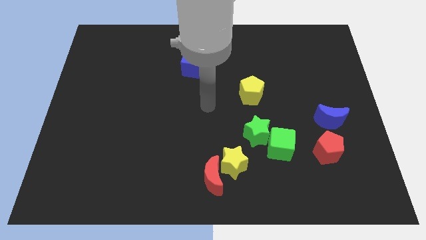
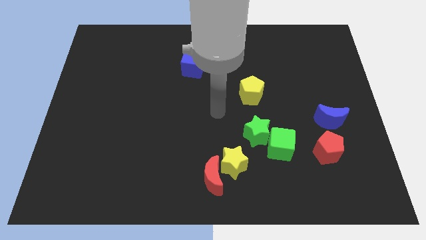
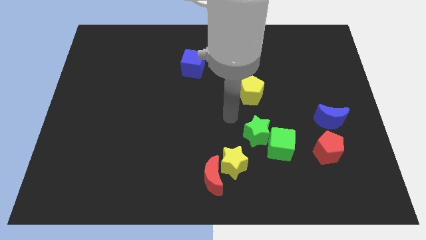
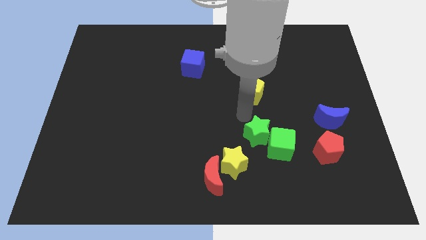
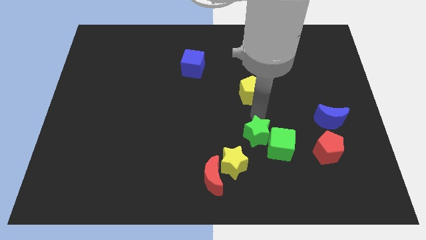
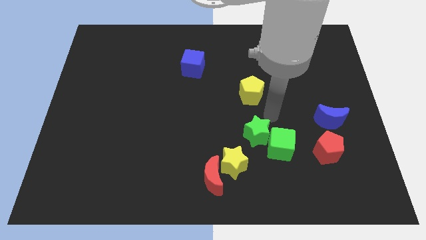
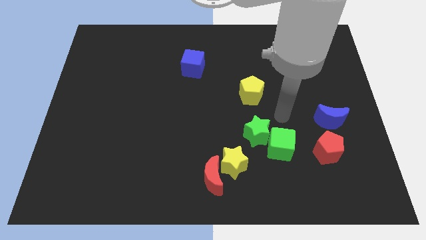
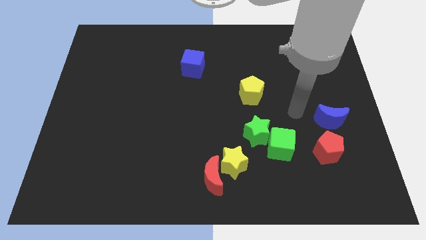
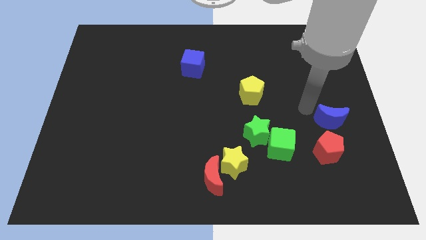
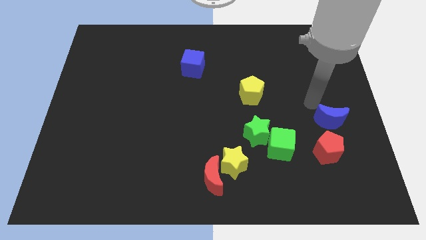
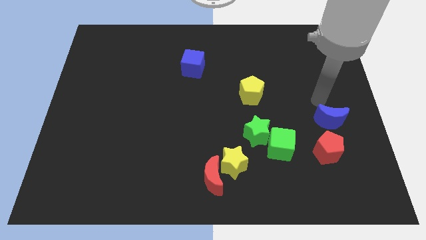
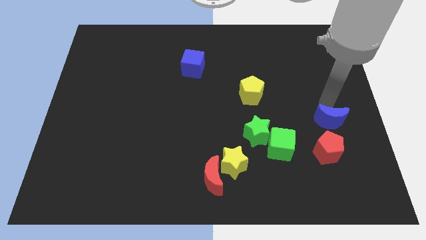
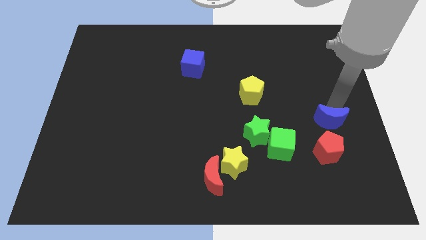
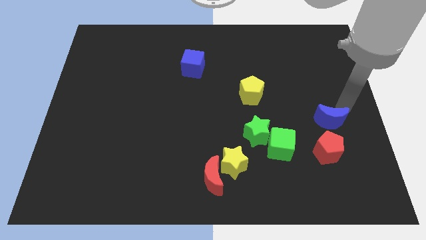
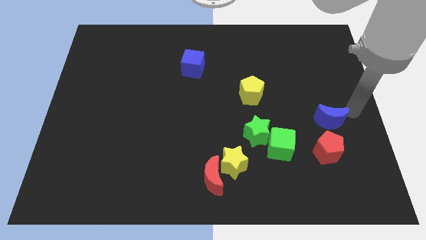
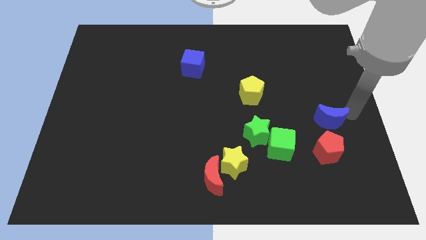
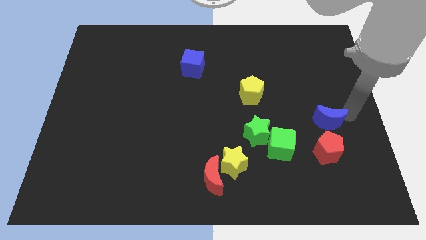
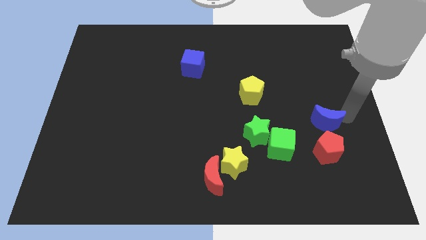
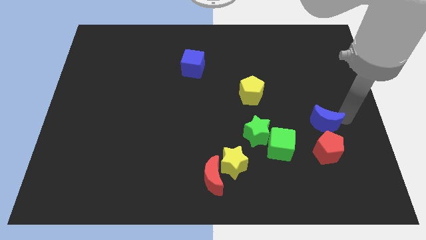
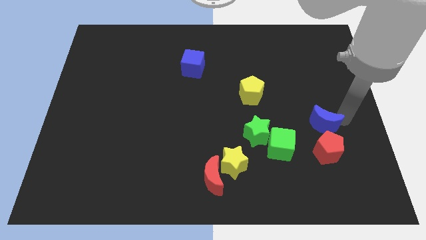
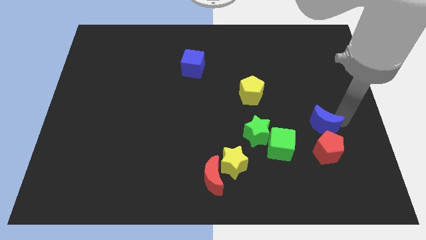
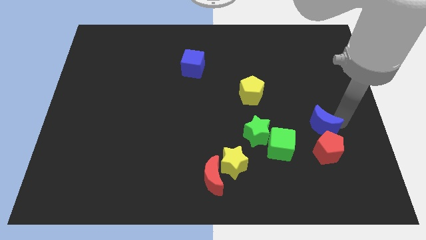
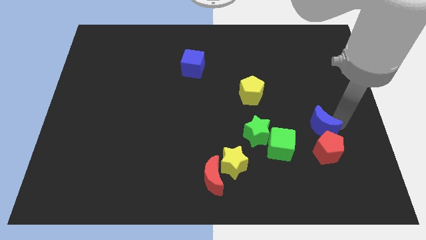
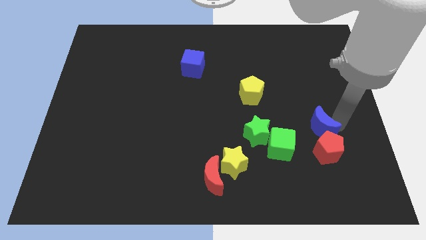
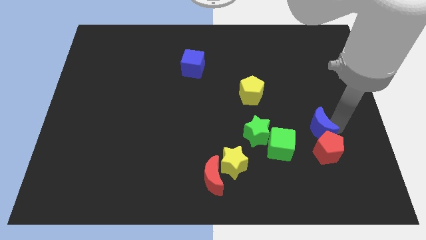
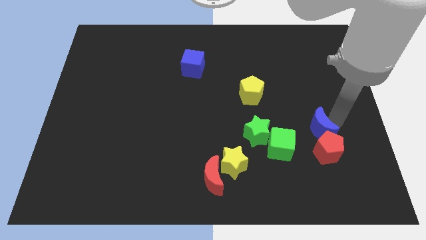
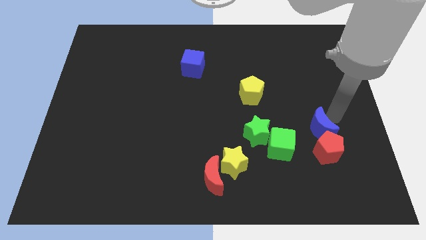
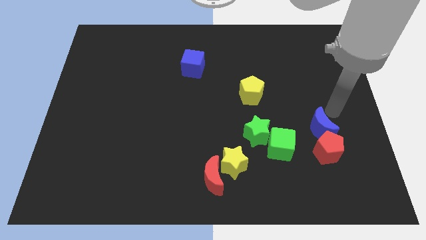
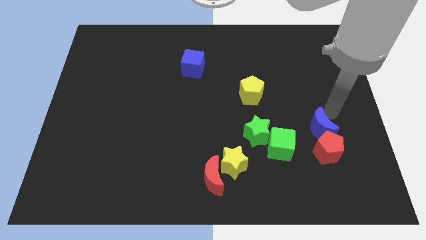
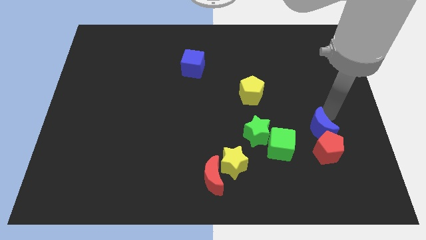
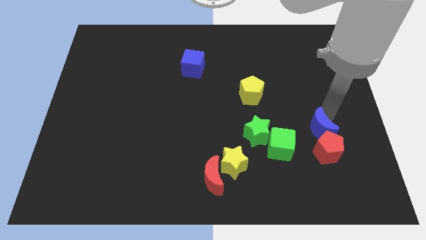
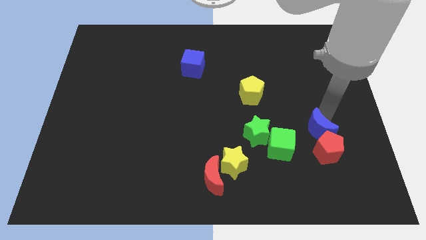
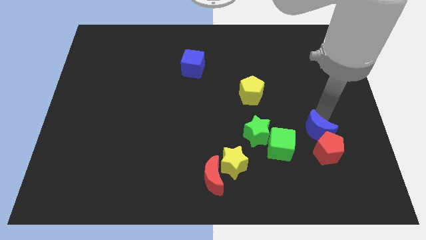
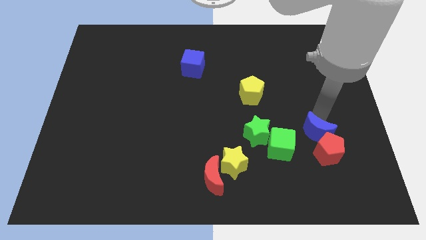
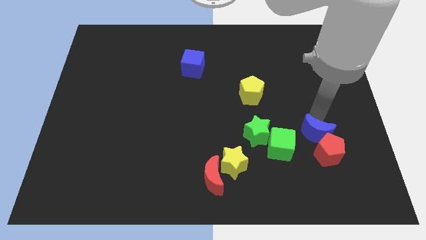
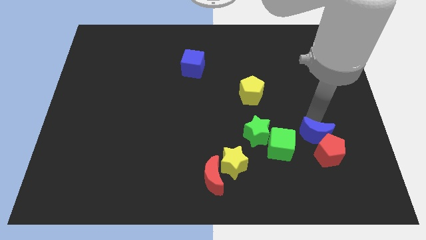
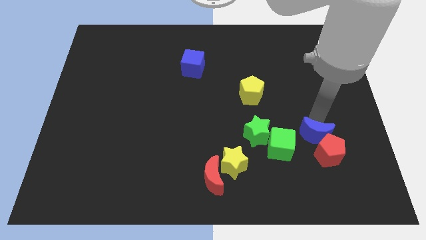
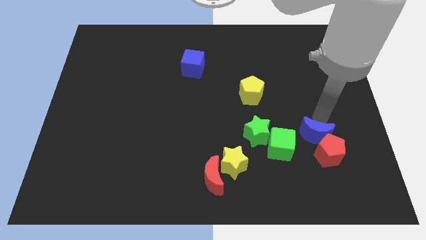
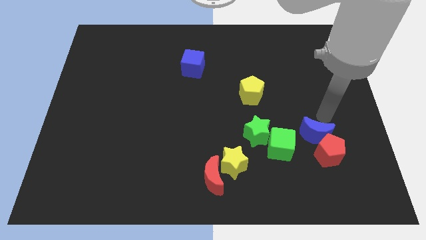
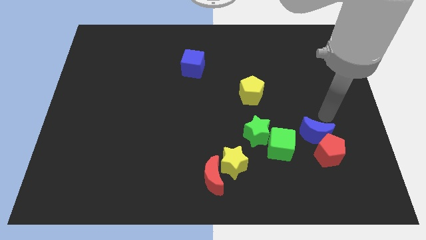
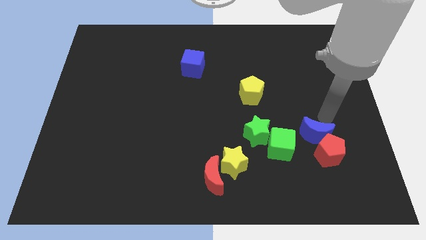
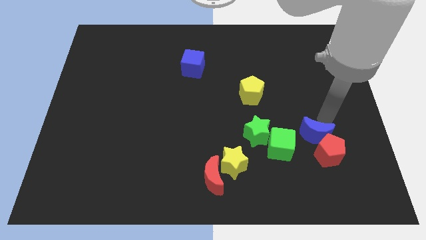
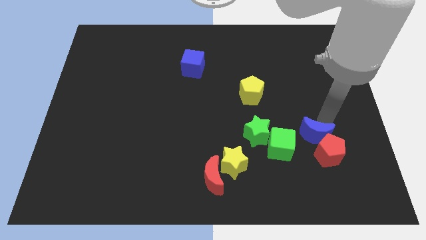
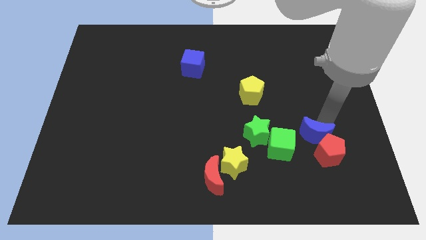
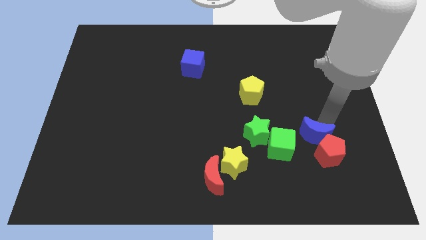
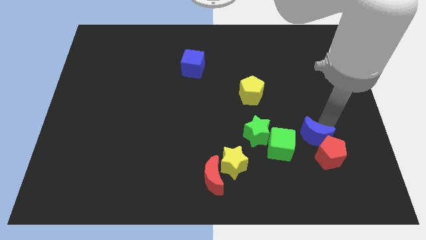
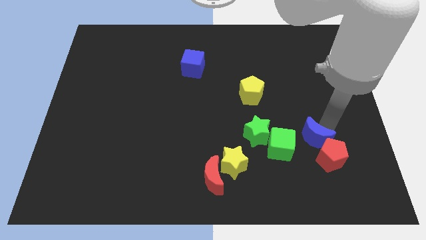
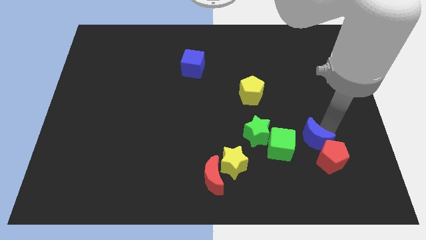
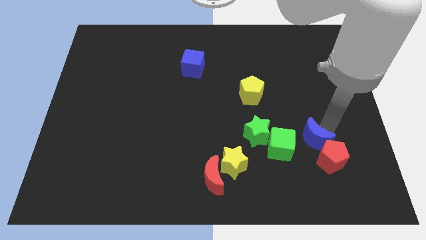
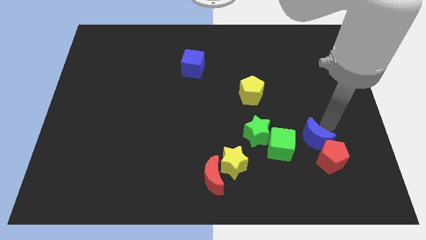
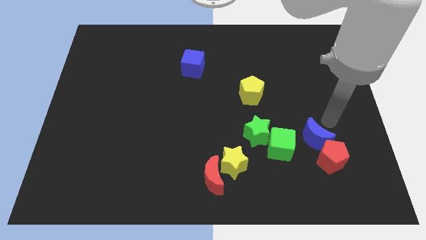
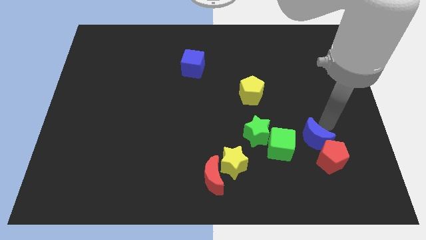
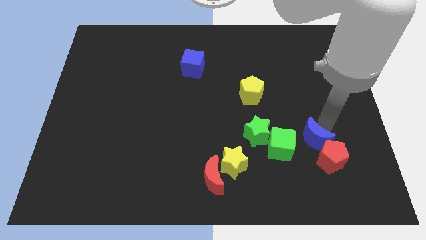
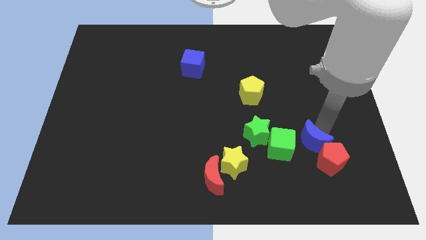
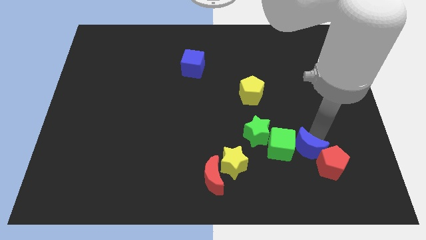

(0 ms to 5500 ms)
push the blue moon to the left side of the red pentagon

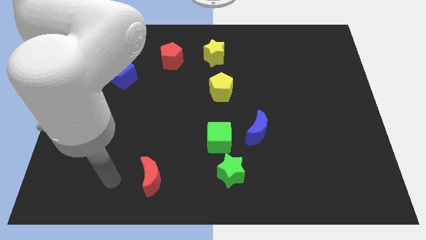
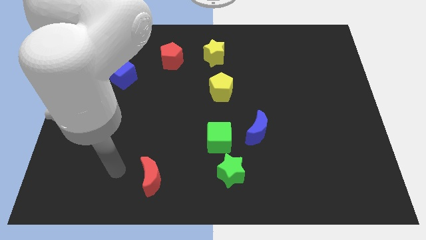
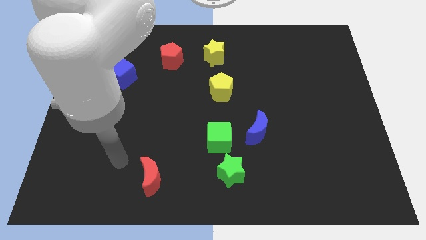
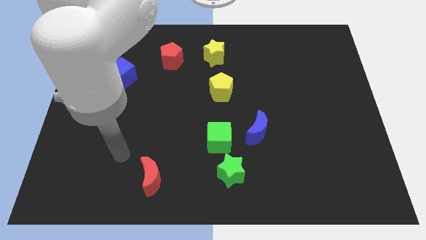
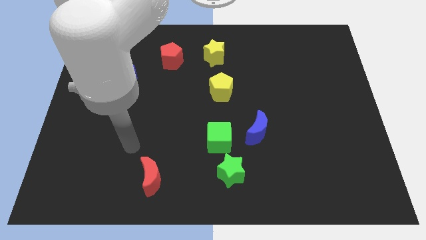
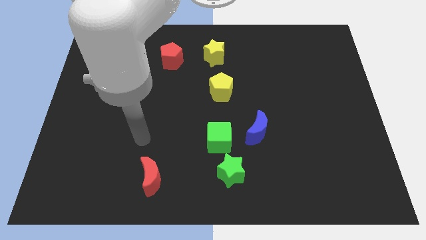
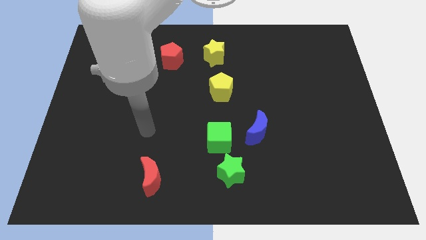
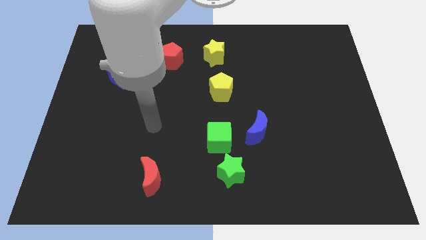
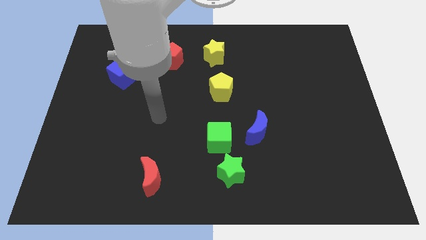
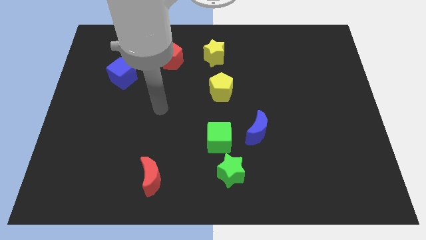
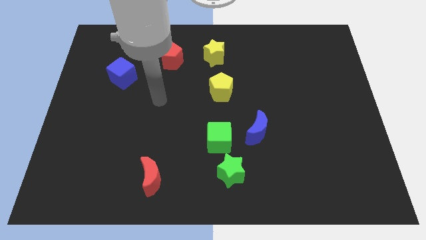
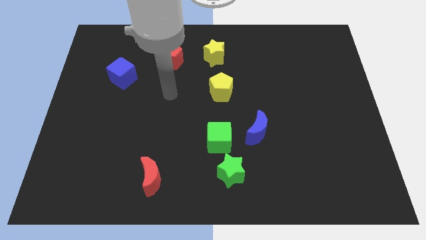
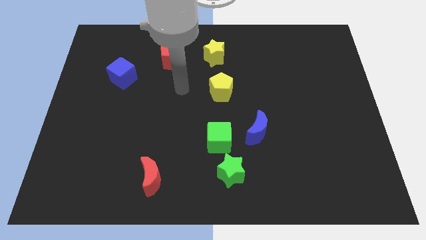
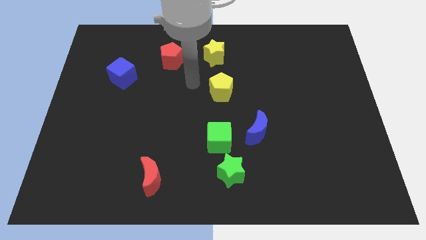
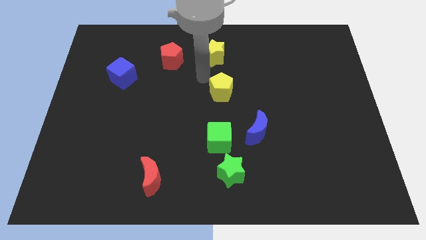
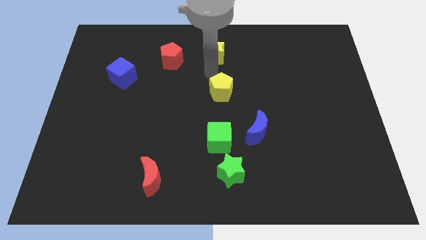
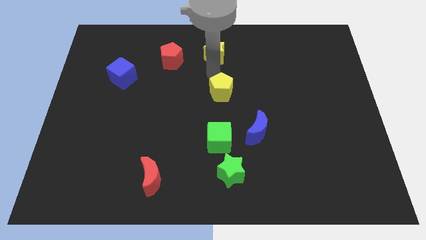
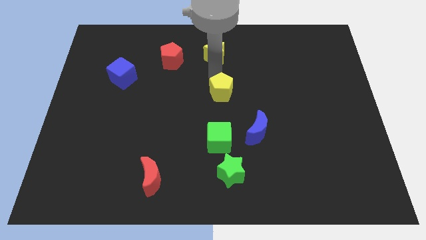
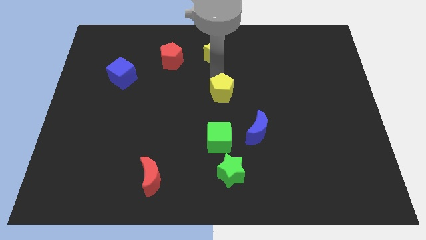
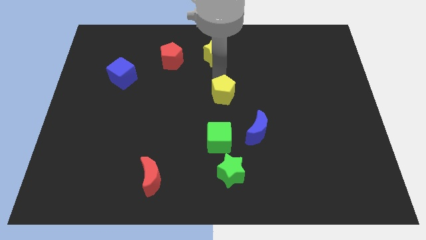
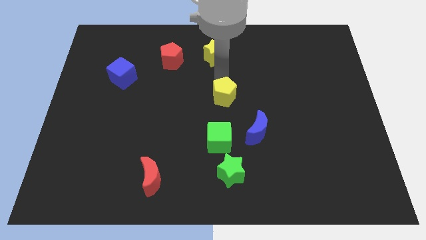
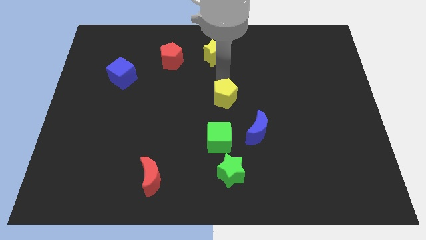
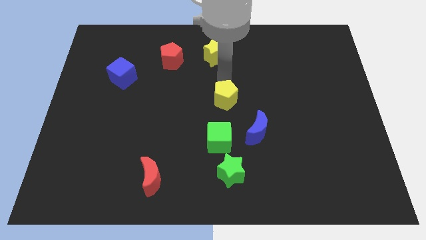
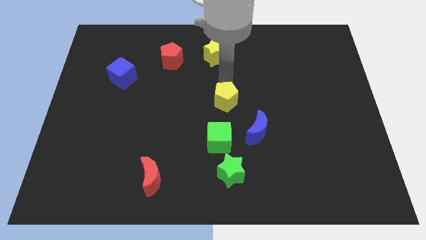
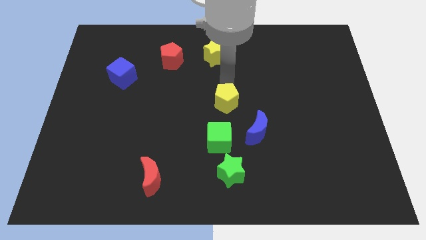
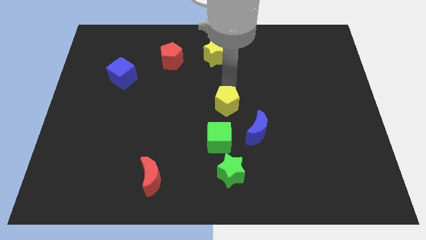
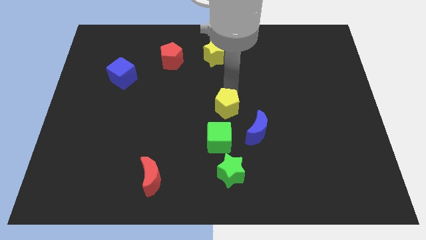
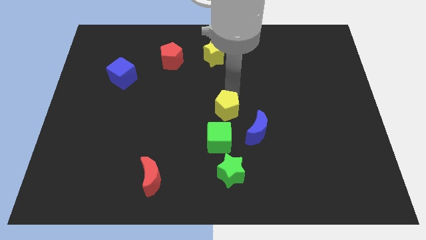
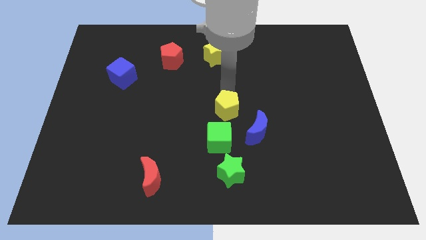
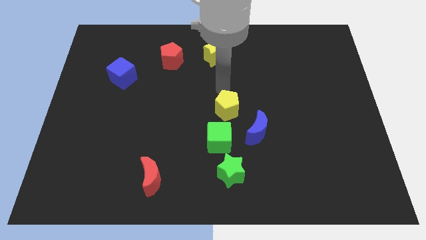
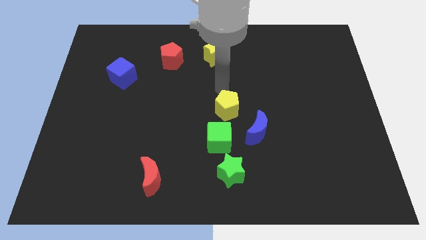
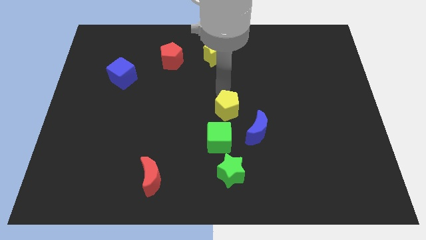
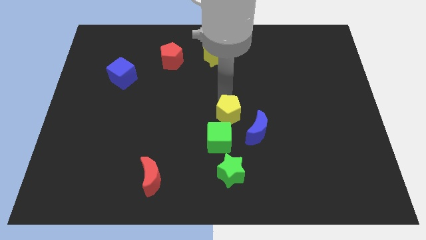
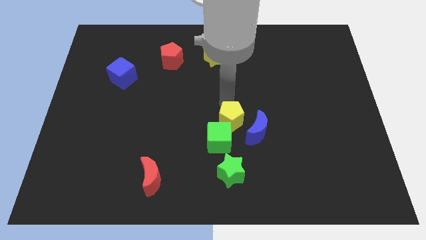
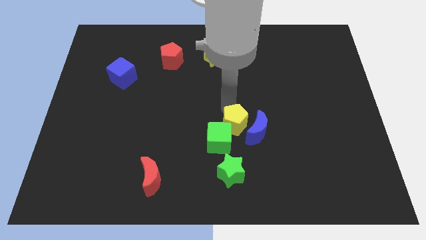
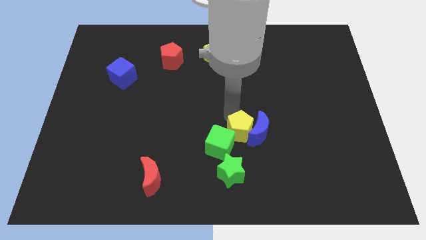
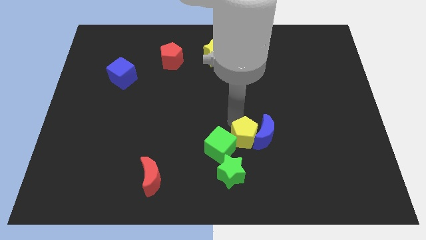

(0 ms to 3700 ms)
put the yellow pentagon to the top right side of the green star
